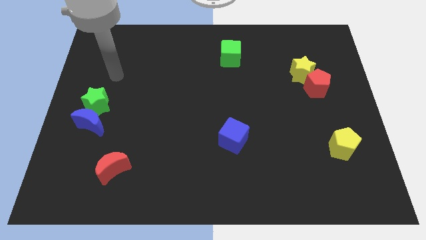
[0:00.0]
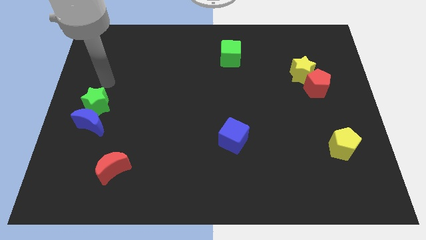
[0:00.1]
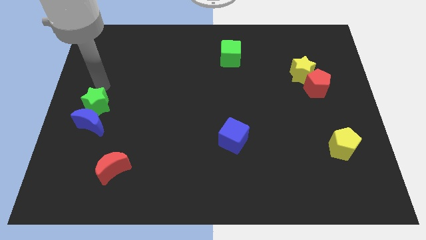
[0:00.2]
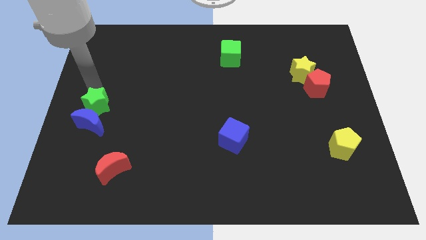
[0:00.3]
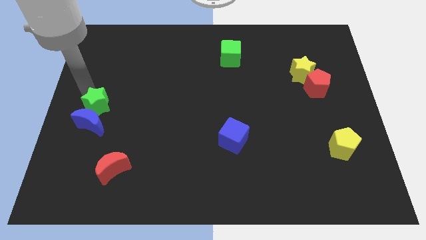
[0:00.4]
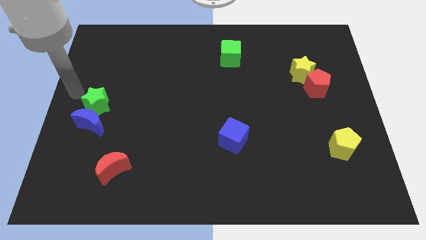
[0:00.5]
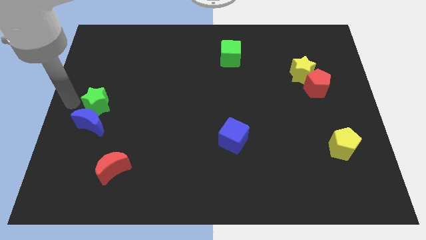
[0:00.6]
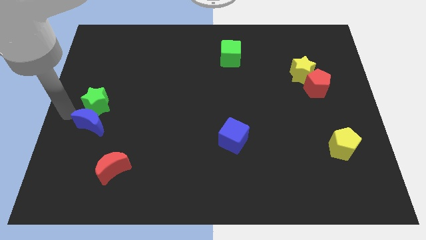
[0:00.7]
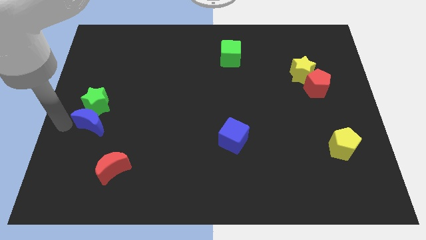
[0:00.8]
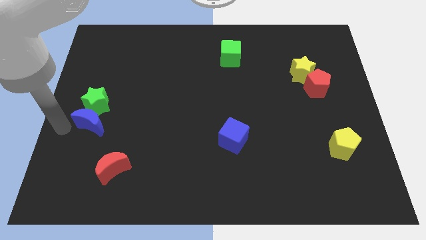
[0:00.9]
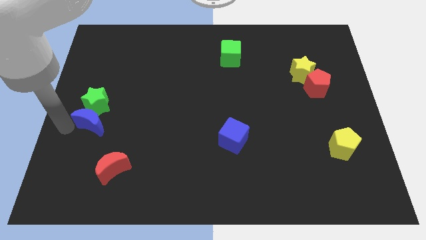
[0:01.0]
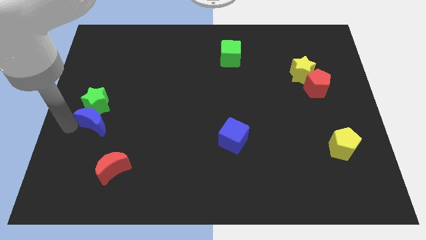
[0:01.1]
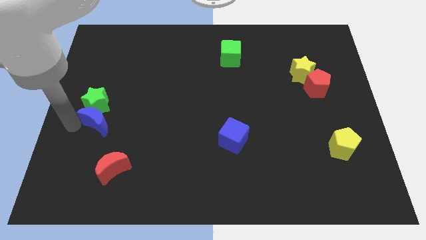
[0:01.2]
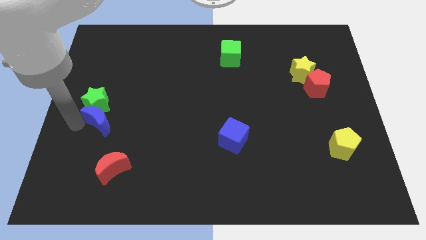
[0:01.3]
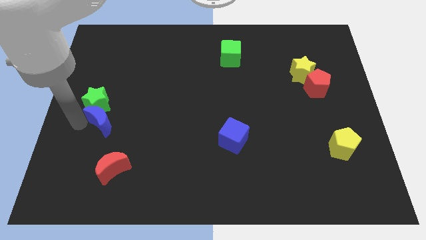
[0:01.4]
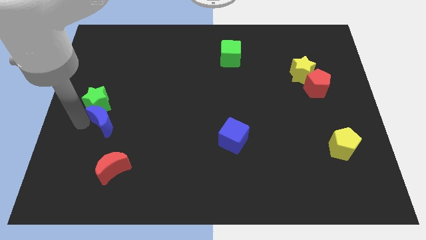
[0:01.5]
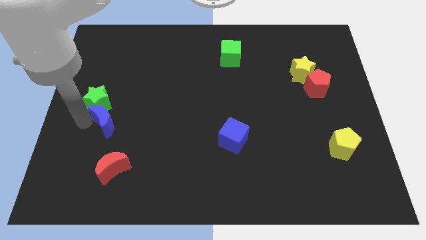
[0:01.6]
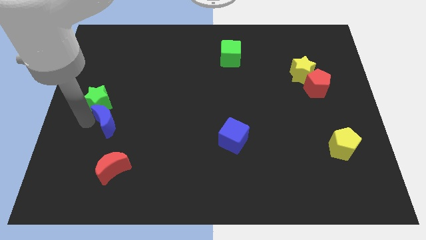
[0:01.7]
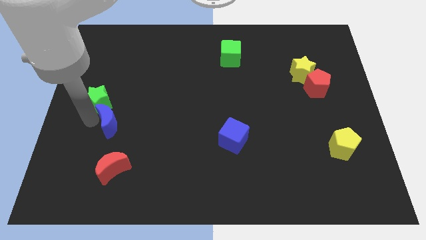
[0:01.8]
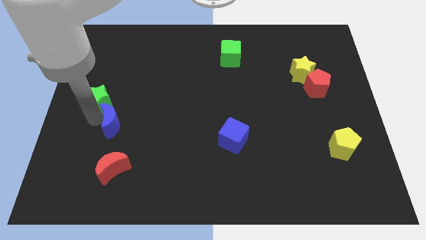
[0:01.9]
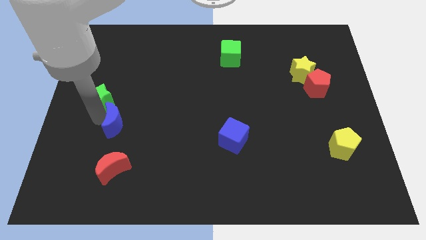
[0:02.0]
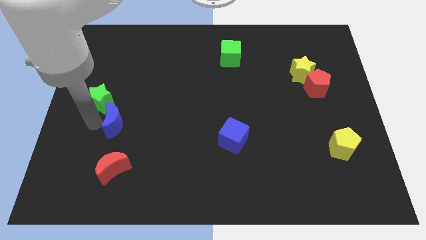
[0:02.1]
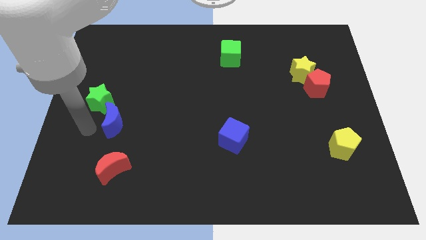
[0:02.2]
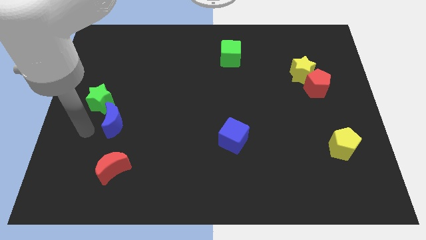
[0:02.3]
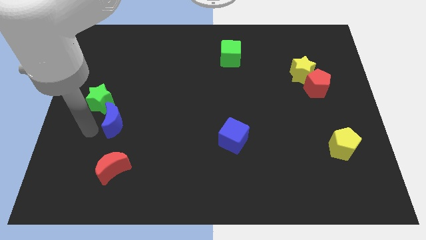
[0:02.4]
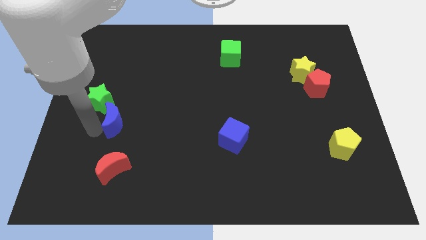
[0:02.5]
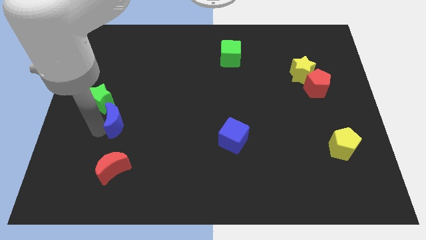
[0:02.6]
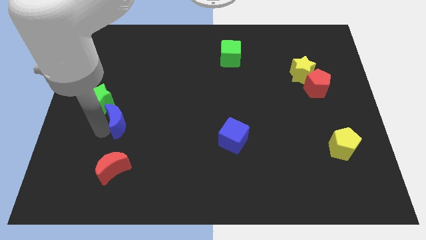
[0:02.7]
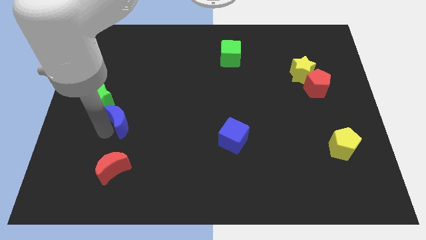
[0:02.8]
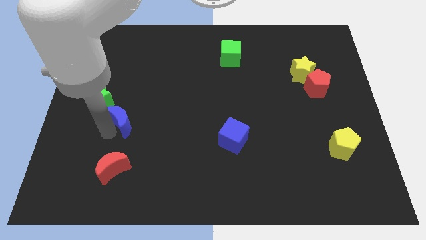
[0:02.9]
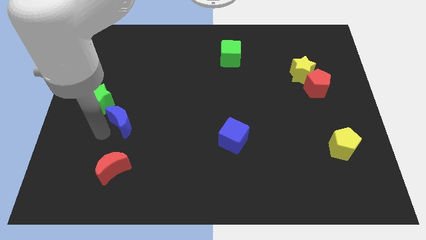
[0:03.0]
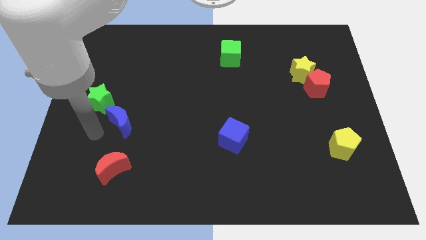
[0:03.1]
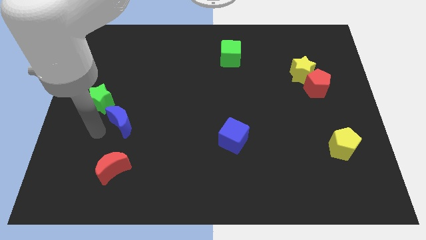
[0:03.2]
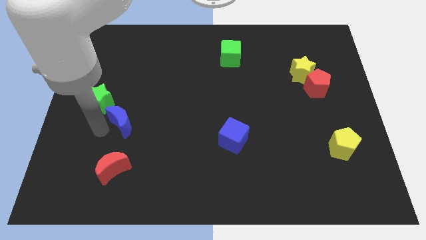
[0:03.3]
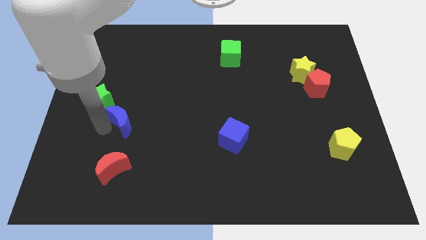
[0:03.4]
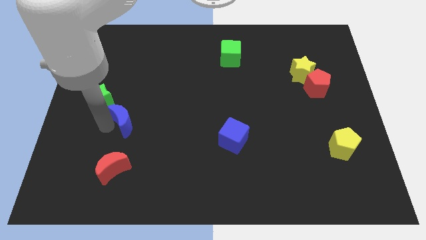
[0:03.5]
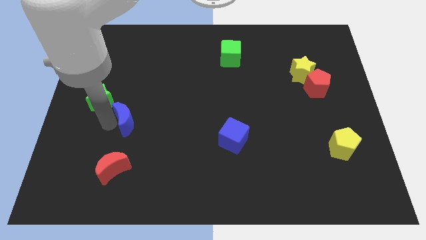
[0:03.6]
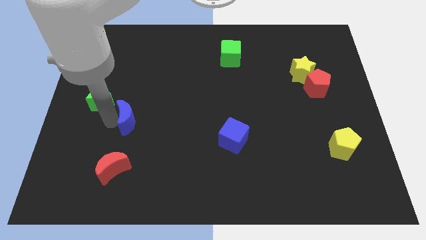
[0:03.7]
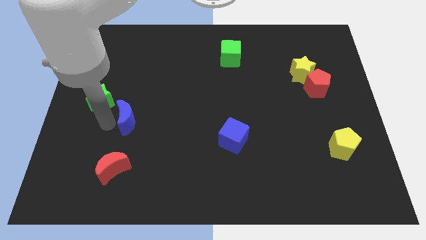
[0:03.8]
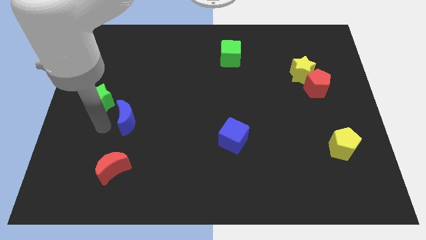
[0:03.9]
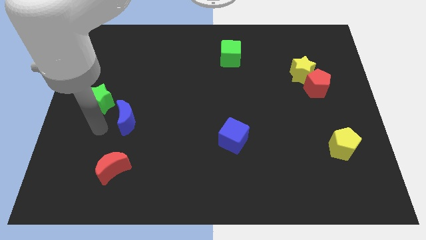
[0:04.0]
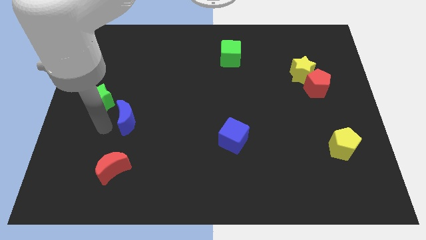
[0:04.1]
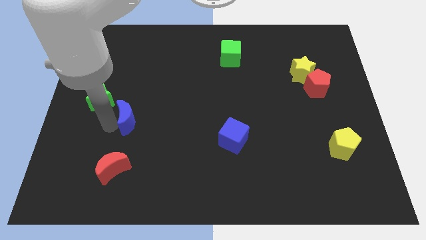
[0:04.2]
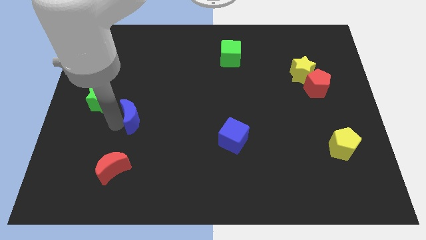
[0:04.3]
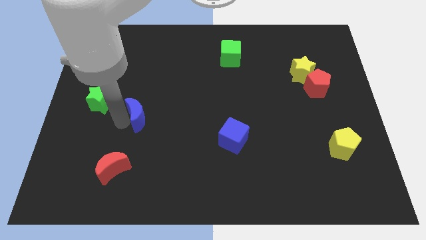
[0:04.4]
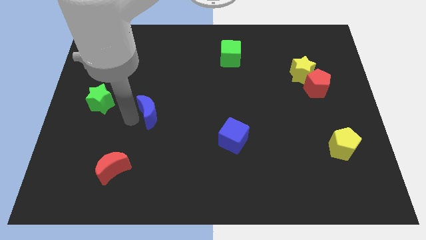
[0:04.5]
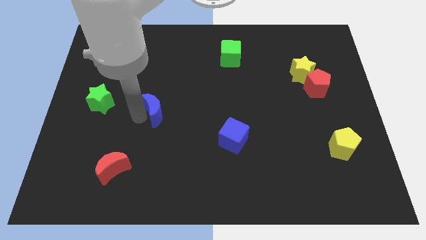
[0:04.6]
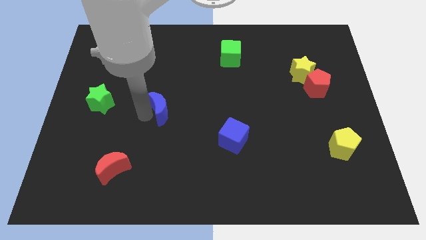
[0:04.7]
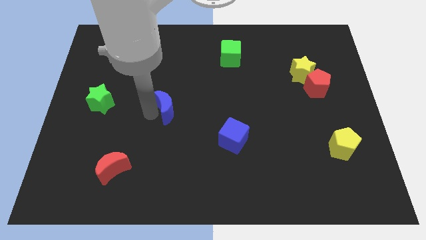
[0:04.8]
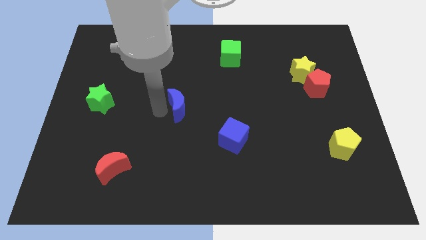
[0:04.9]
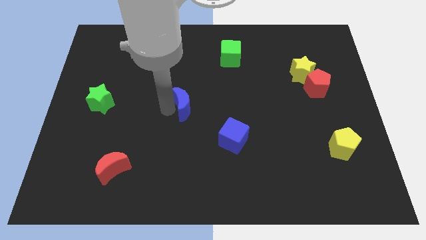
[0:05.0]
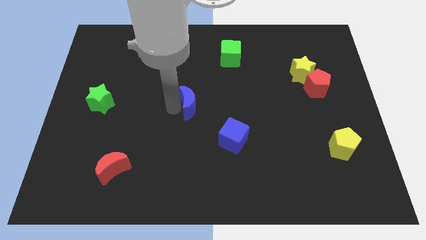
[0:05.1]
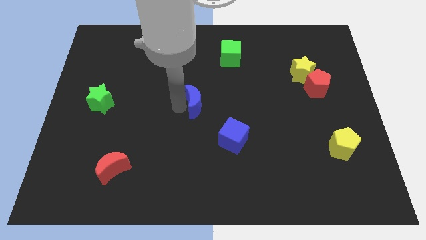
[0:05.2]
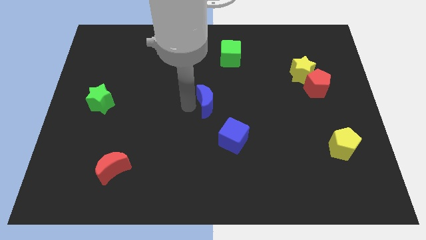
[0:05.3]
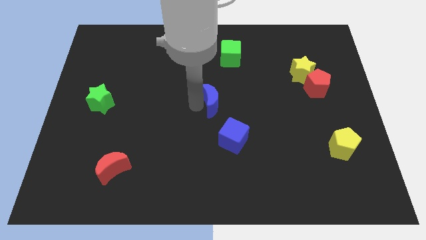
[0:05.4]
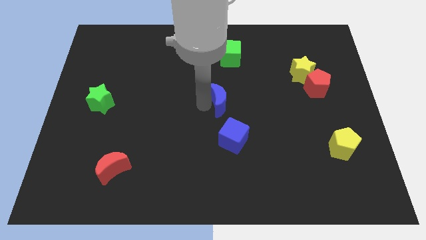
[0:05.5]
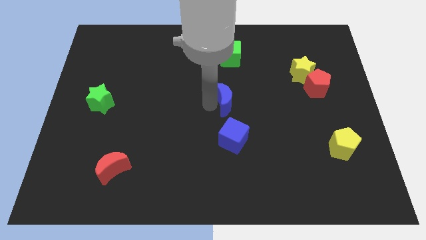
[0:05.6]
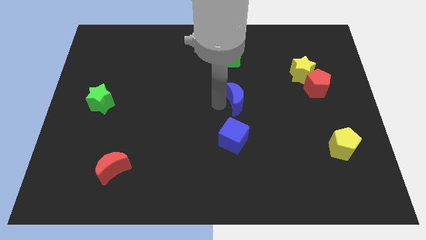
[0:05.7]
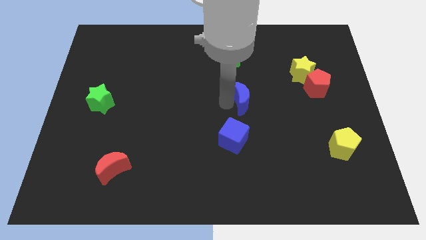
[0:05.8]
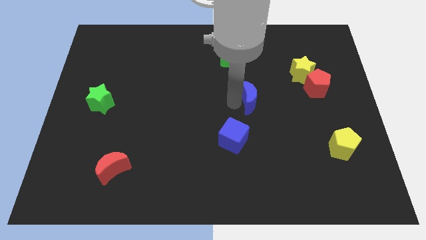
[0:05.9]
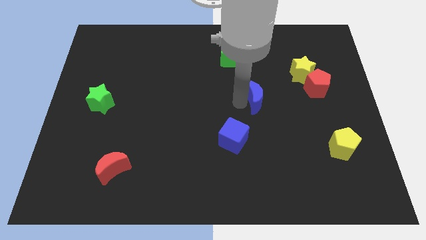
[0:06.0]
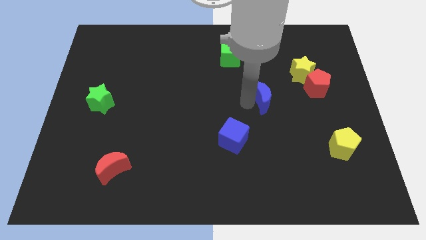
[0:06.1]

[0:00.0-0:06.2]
put the blue moon left of the red pentagon
